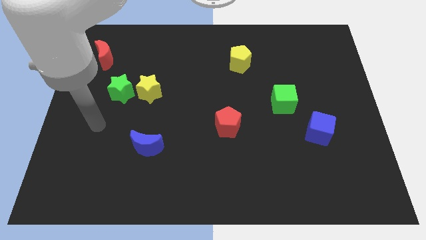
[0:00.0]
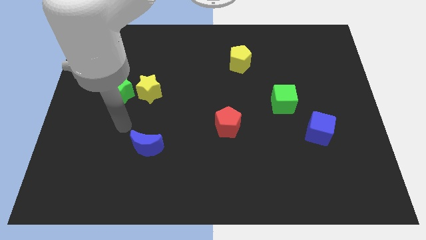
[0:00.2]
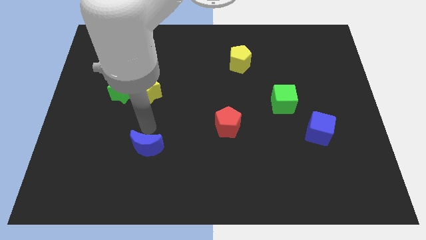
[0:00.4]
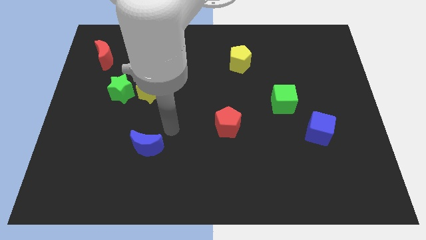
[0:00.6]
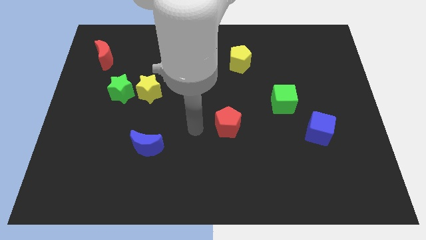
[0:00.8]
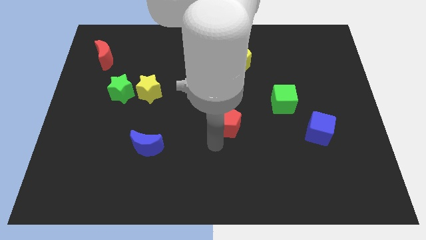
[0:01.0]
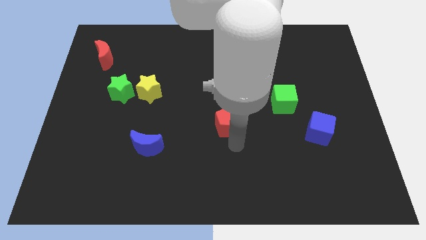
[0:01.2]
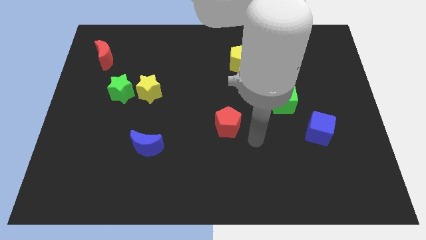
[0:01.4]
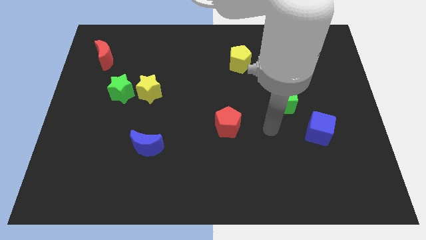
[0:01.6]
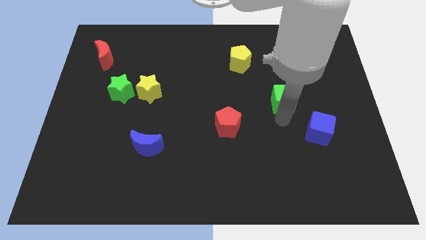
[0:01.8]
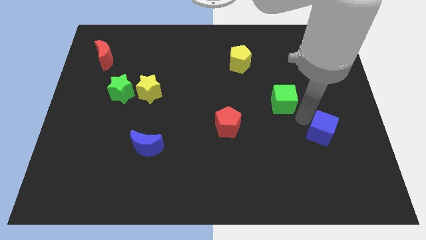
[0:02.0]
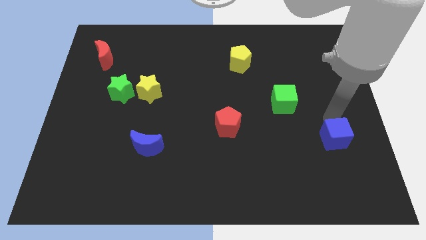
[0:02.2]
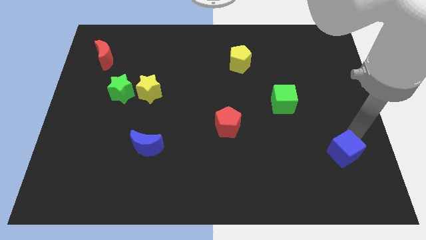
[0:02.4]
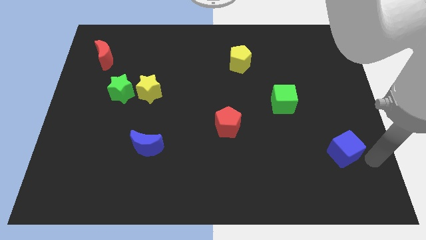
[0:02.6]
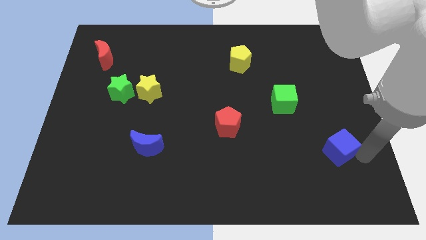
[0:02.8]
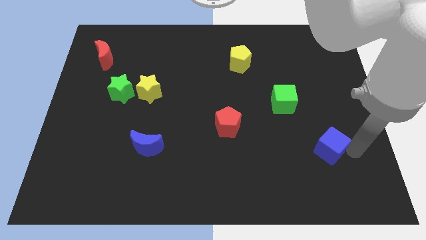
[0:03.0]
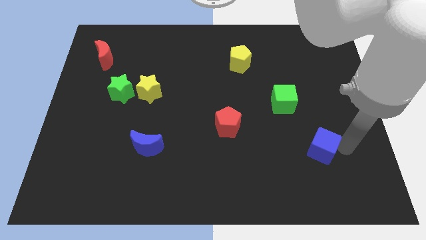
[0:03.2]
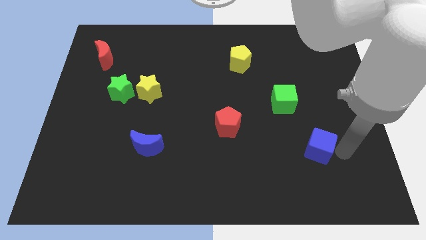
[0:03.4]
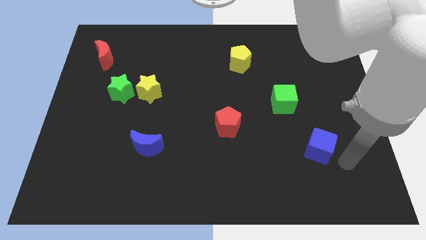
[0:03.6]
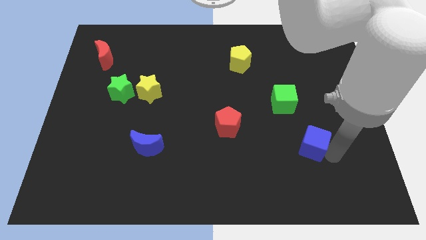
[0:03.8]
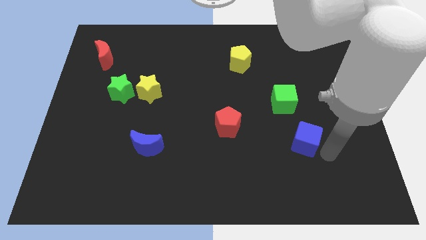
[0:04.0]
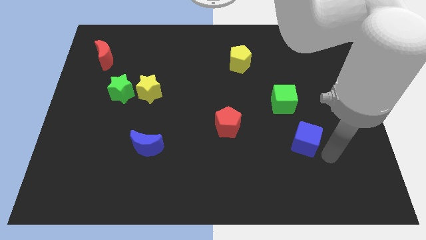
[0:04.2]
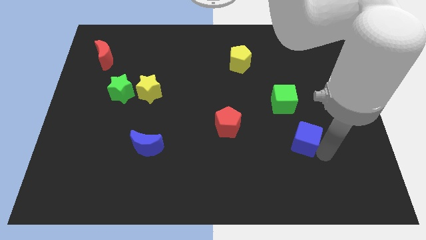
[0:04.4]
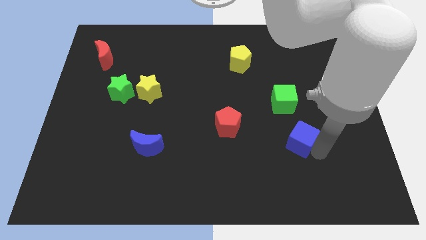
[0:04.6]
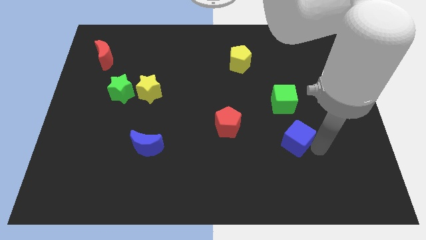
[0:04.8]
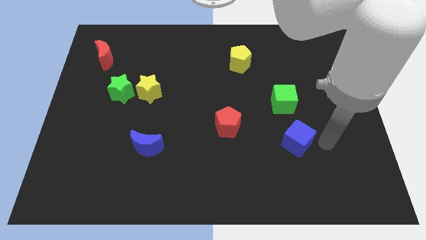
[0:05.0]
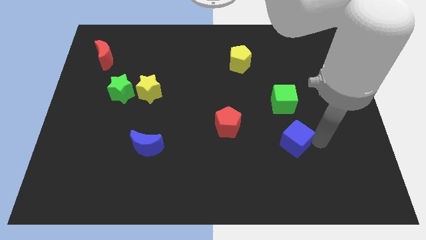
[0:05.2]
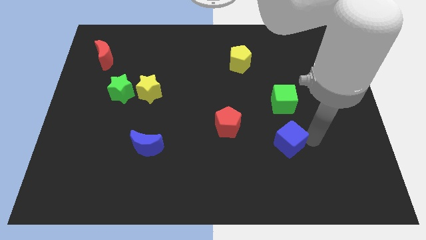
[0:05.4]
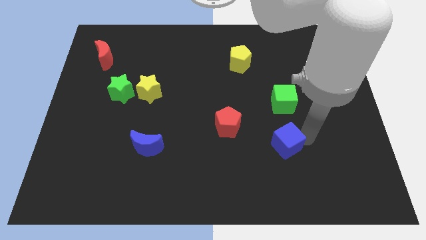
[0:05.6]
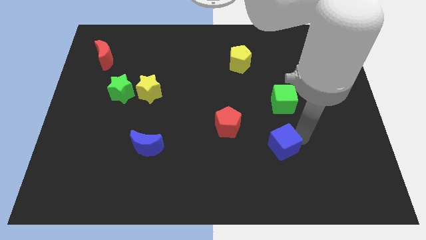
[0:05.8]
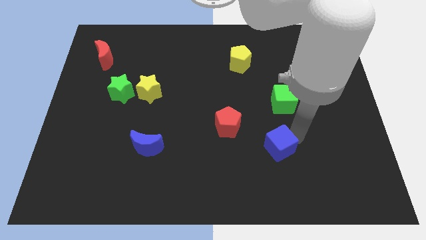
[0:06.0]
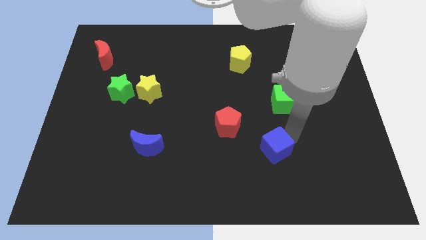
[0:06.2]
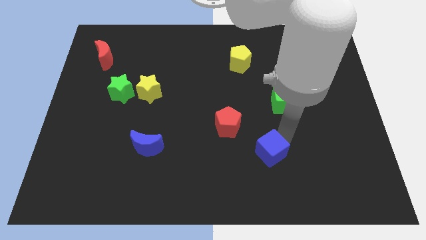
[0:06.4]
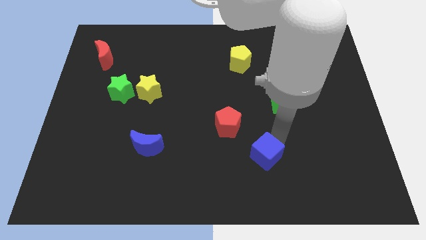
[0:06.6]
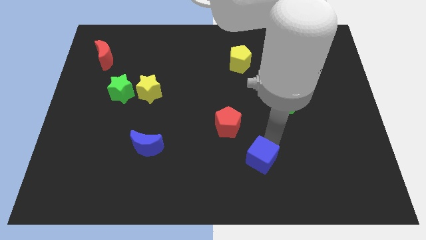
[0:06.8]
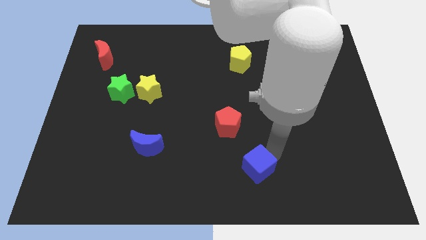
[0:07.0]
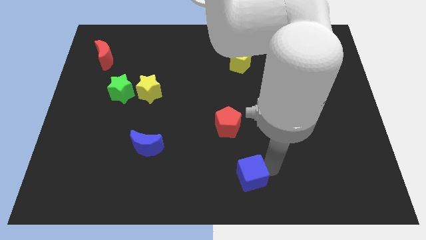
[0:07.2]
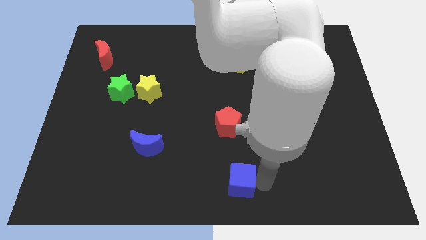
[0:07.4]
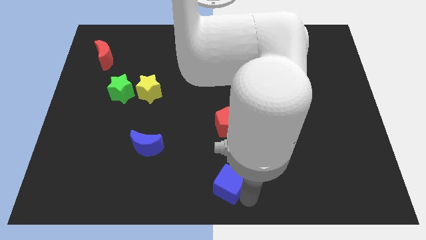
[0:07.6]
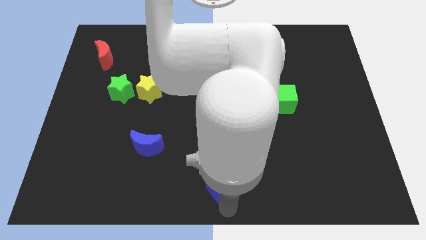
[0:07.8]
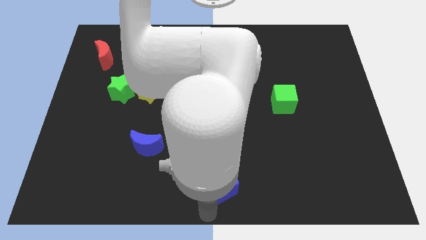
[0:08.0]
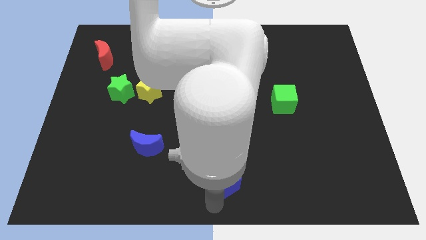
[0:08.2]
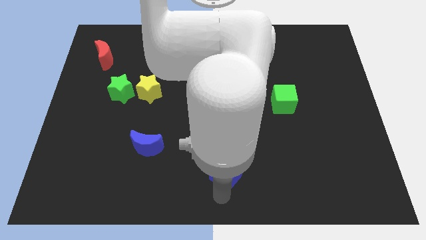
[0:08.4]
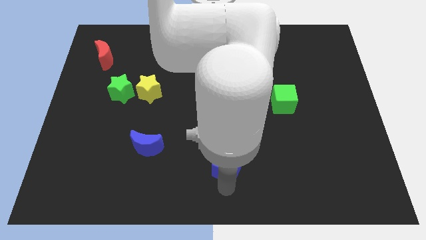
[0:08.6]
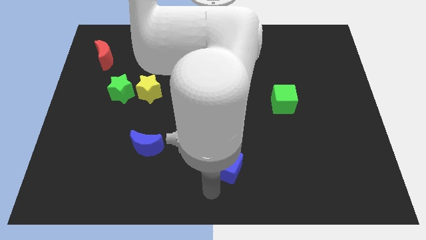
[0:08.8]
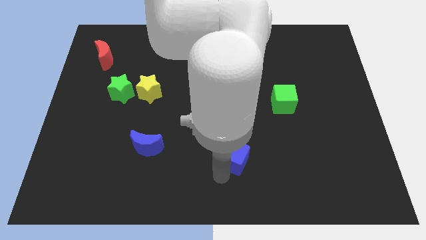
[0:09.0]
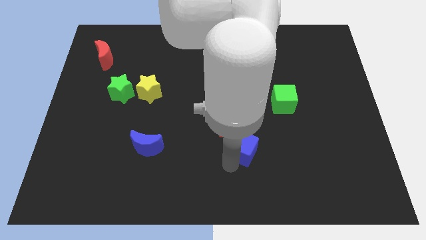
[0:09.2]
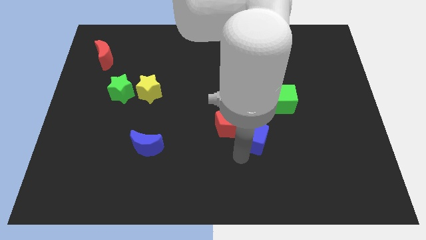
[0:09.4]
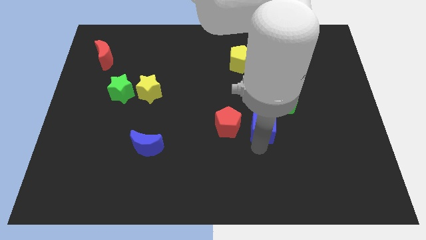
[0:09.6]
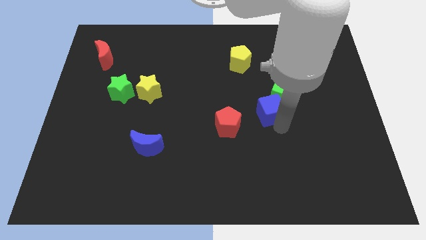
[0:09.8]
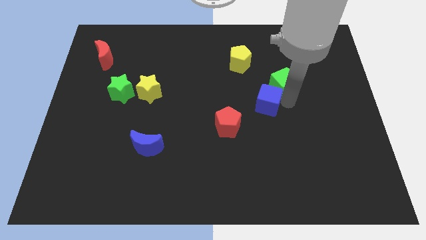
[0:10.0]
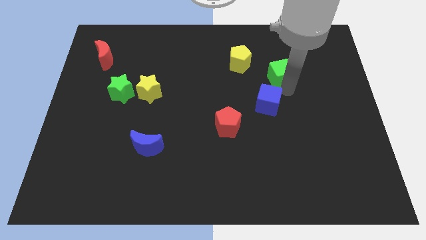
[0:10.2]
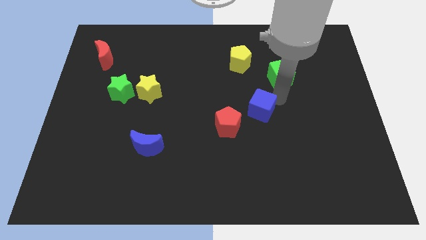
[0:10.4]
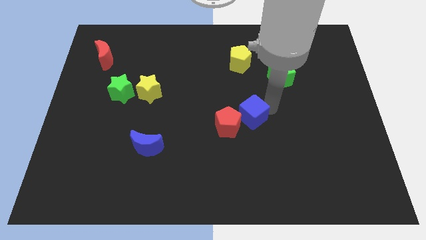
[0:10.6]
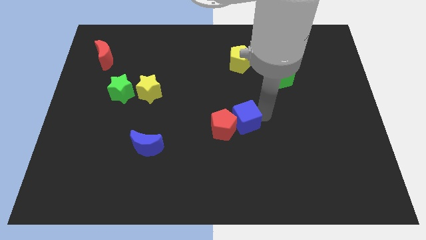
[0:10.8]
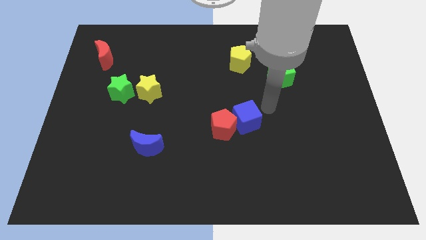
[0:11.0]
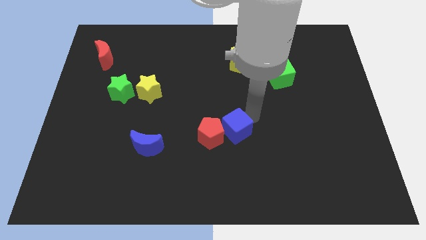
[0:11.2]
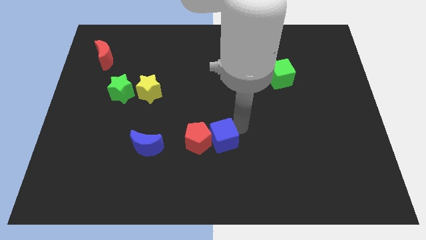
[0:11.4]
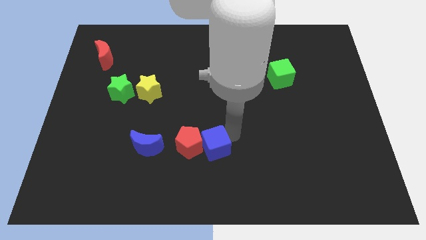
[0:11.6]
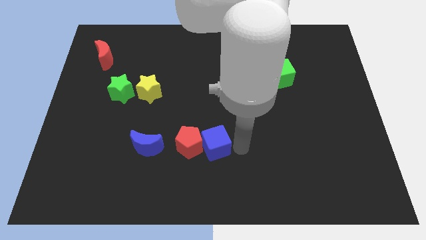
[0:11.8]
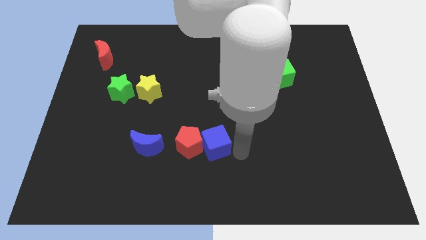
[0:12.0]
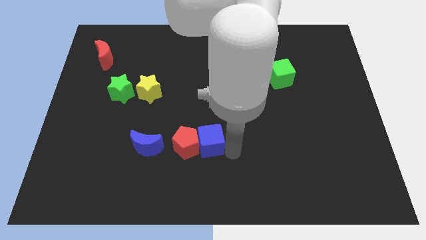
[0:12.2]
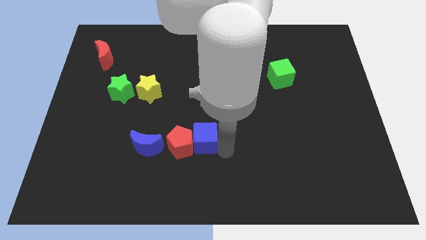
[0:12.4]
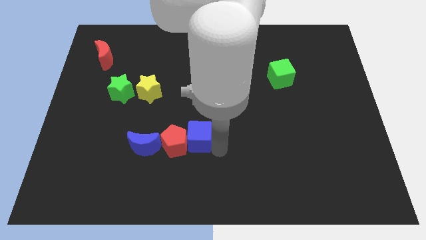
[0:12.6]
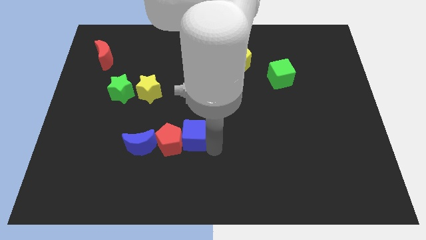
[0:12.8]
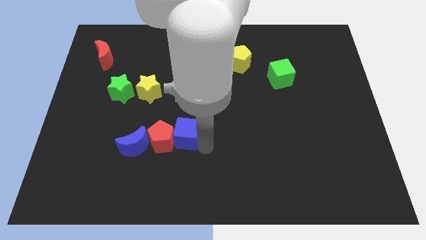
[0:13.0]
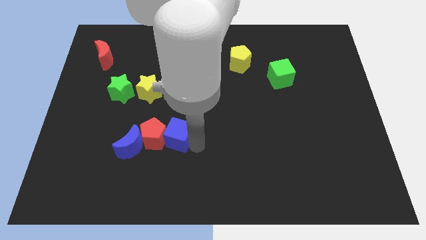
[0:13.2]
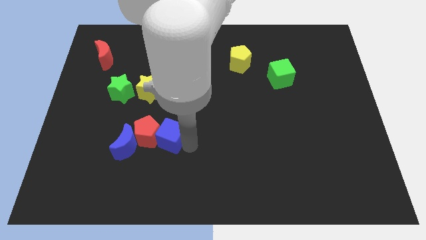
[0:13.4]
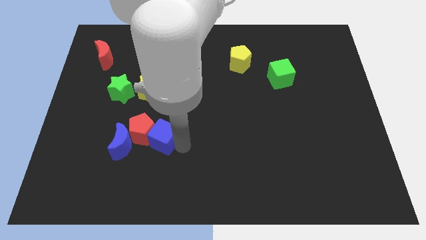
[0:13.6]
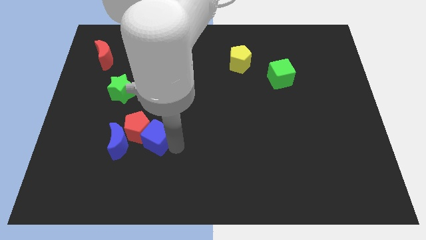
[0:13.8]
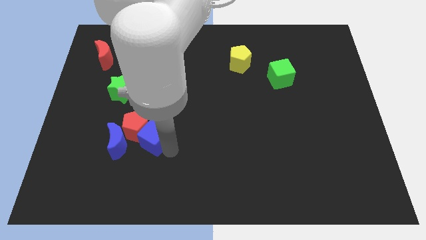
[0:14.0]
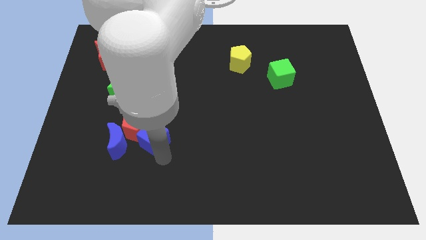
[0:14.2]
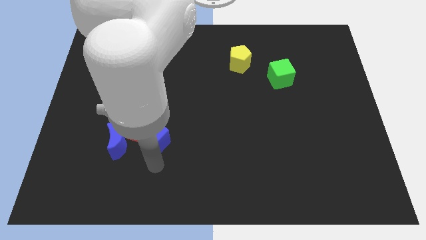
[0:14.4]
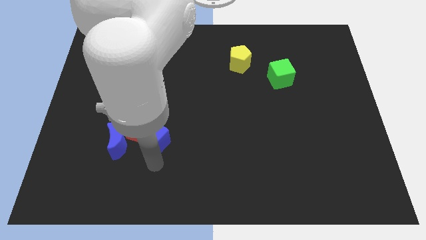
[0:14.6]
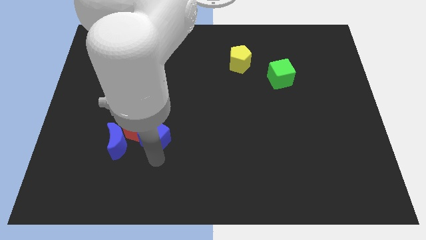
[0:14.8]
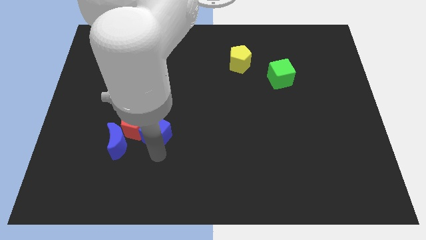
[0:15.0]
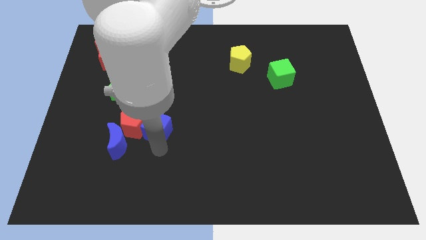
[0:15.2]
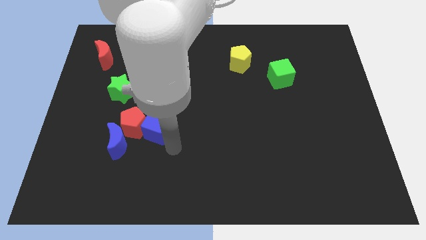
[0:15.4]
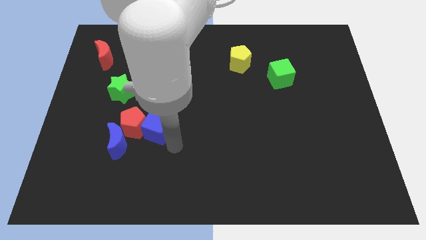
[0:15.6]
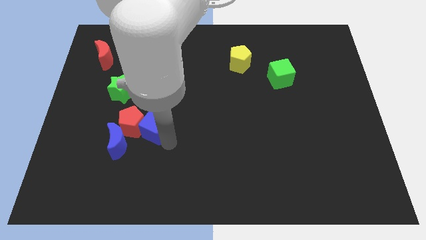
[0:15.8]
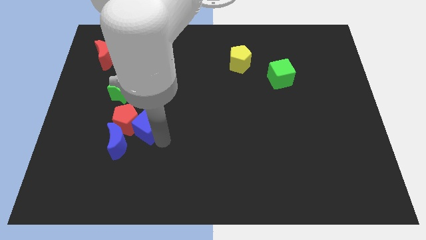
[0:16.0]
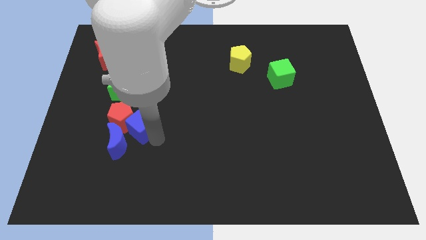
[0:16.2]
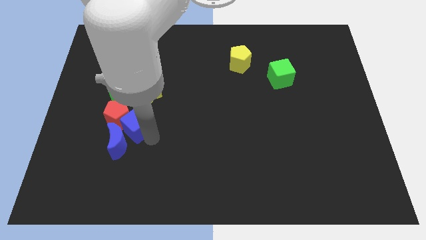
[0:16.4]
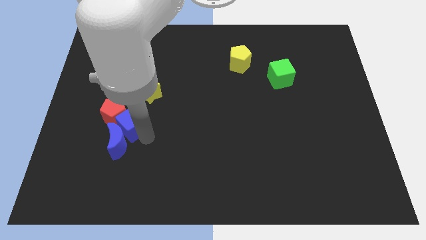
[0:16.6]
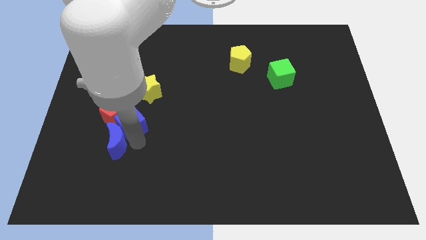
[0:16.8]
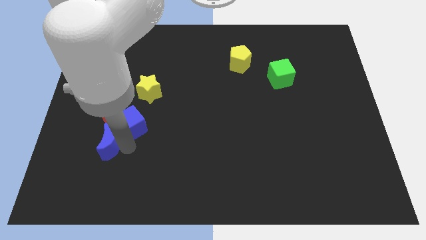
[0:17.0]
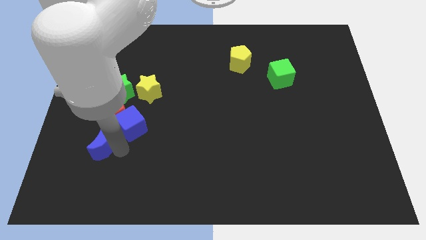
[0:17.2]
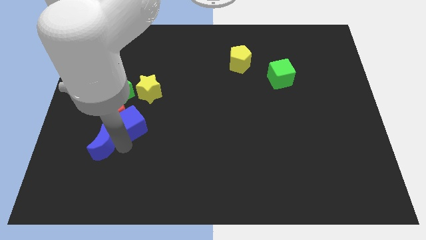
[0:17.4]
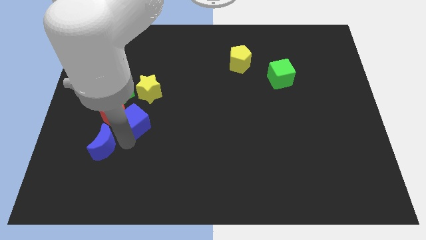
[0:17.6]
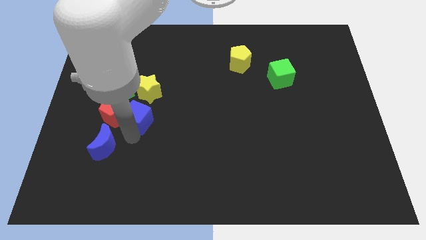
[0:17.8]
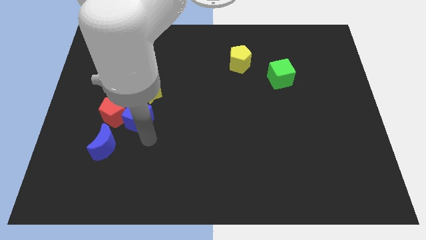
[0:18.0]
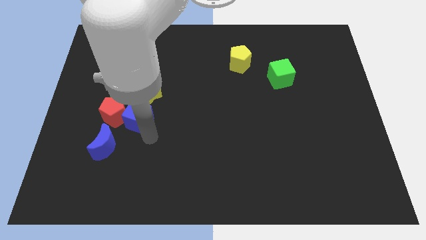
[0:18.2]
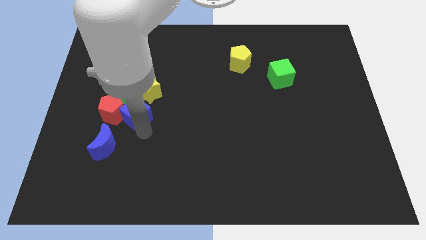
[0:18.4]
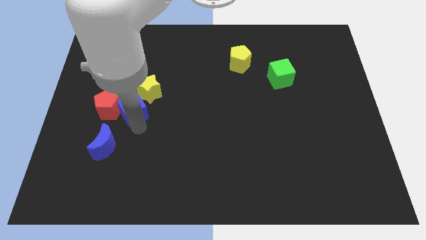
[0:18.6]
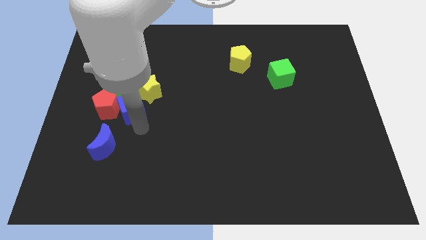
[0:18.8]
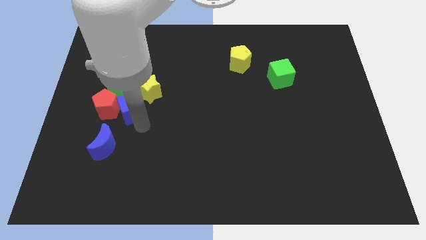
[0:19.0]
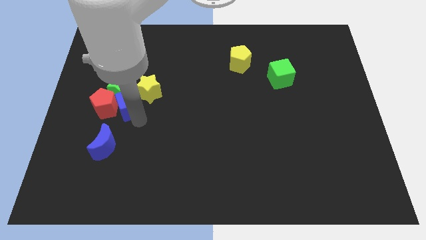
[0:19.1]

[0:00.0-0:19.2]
put the blue cube towards the green star
